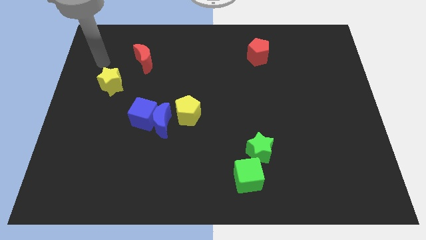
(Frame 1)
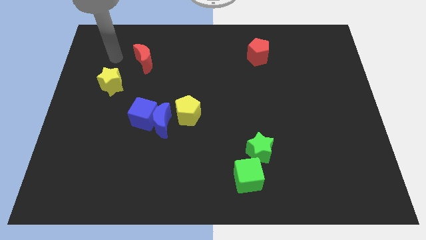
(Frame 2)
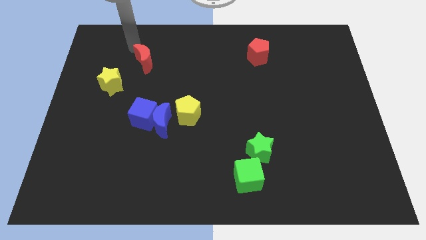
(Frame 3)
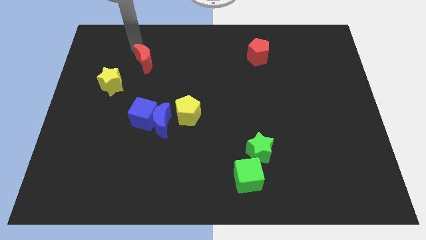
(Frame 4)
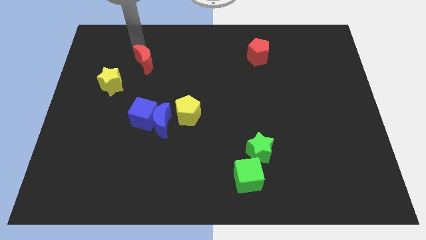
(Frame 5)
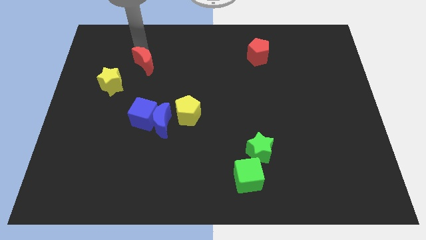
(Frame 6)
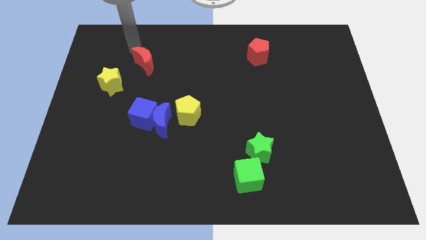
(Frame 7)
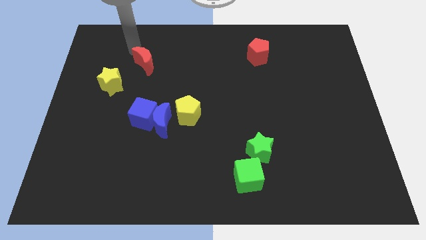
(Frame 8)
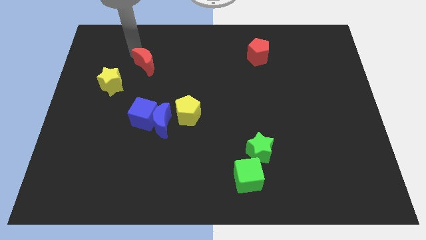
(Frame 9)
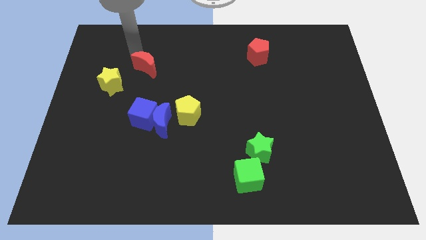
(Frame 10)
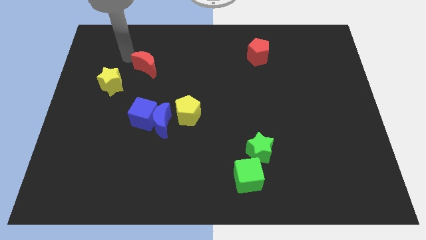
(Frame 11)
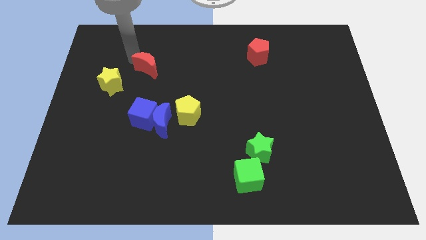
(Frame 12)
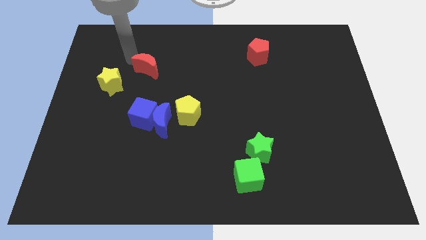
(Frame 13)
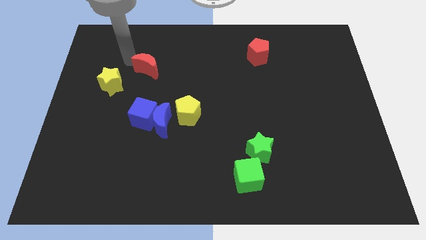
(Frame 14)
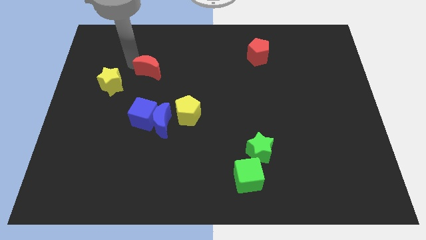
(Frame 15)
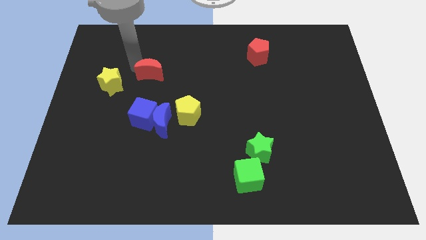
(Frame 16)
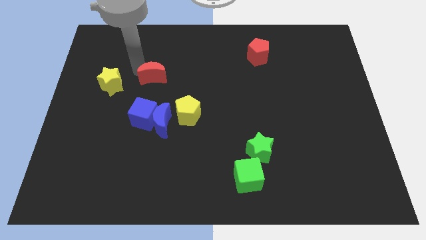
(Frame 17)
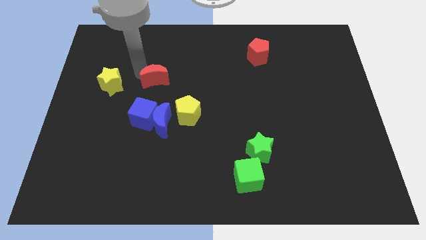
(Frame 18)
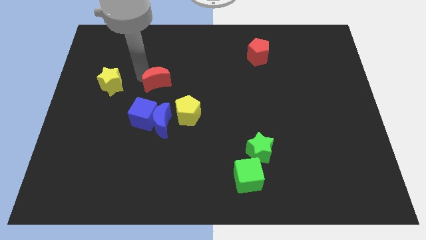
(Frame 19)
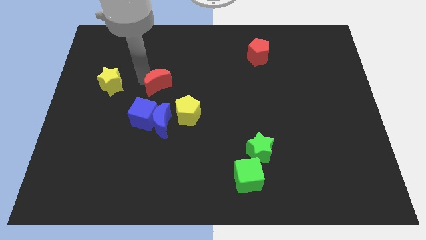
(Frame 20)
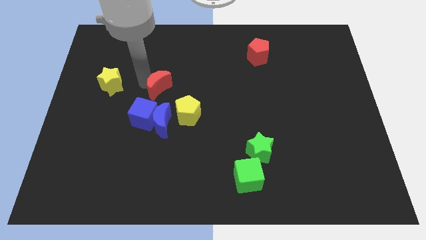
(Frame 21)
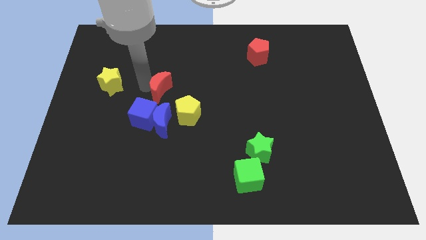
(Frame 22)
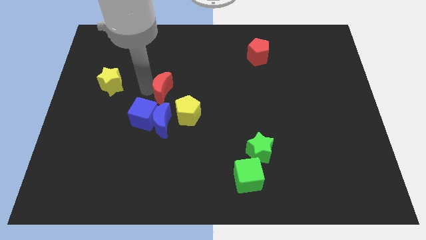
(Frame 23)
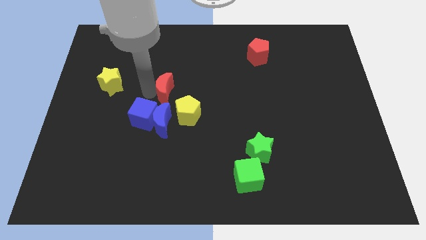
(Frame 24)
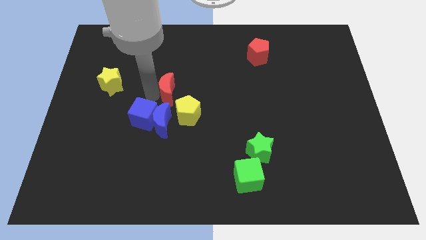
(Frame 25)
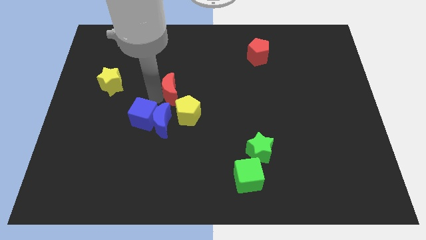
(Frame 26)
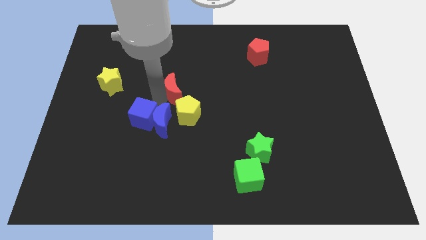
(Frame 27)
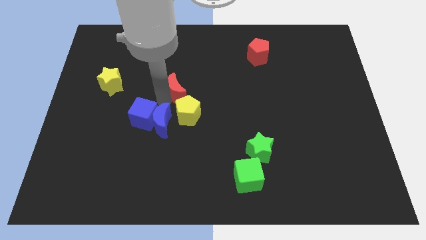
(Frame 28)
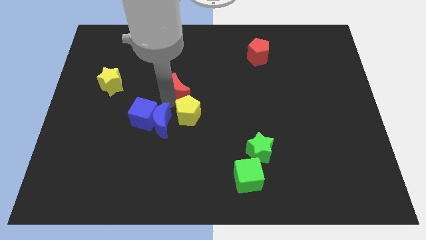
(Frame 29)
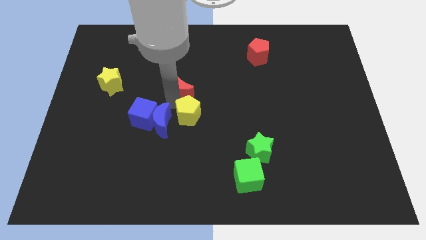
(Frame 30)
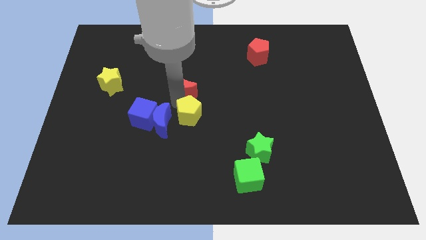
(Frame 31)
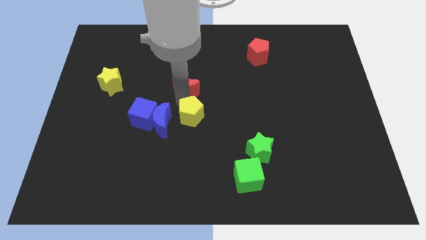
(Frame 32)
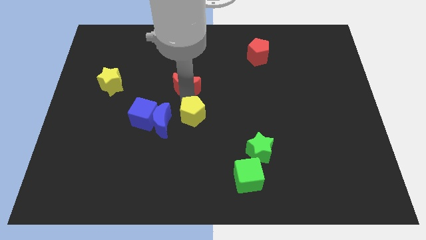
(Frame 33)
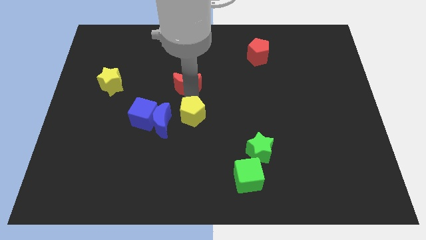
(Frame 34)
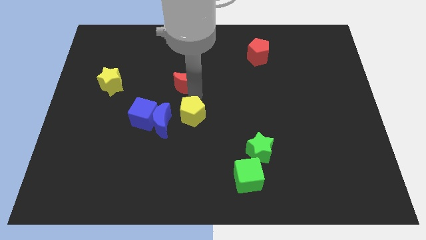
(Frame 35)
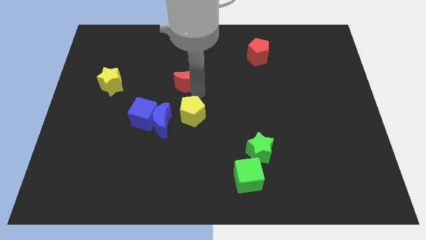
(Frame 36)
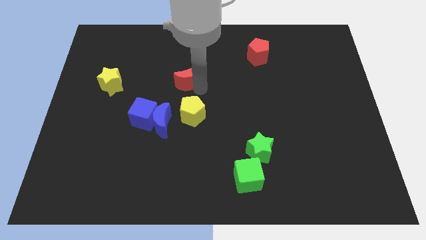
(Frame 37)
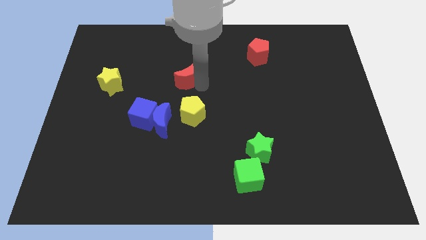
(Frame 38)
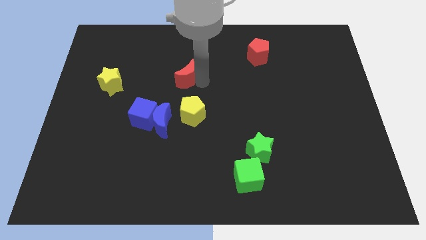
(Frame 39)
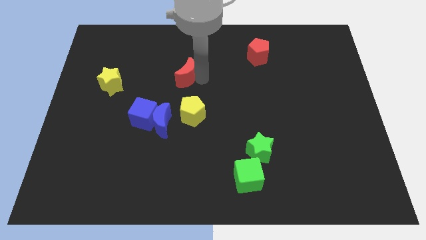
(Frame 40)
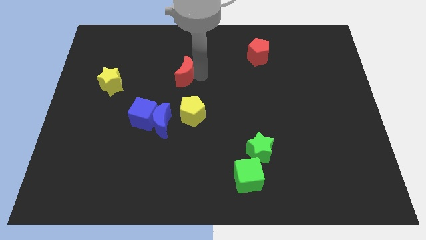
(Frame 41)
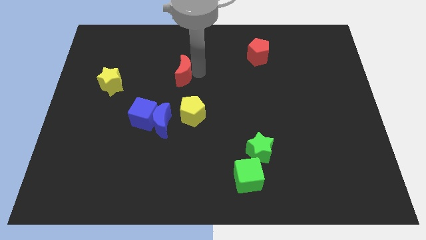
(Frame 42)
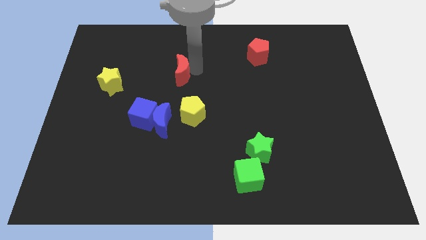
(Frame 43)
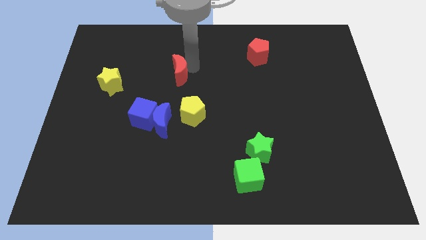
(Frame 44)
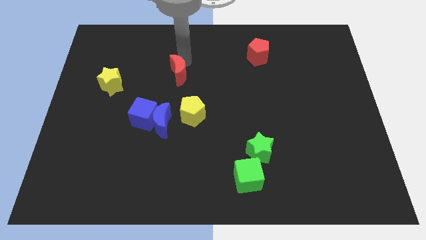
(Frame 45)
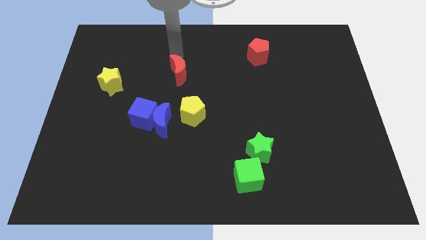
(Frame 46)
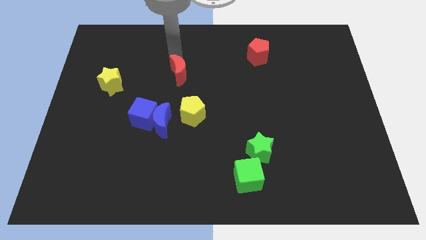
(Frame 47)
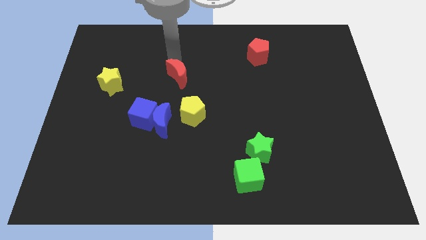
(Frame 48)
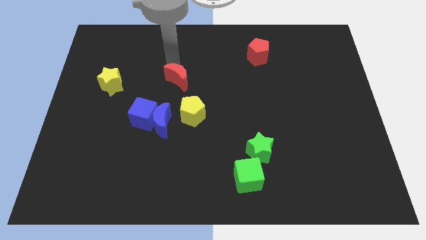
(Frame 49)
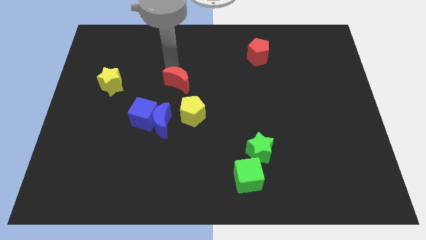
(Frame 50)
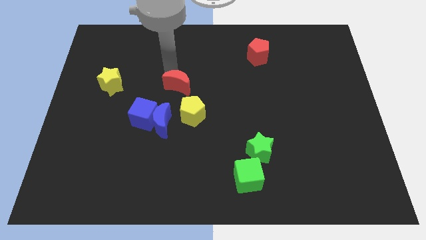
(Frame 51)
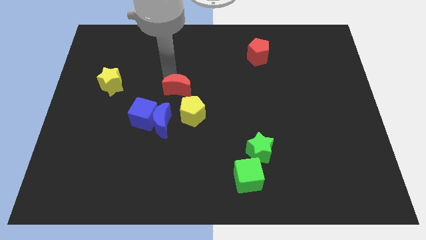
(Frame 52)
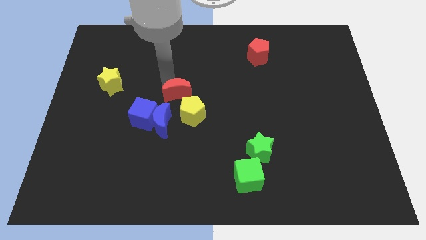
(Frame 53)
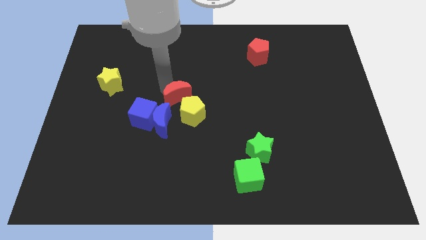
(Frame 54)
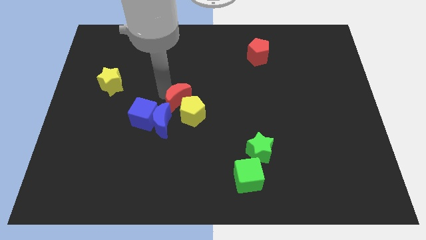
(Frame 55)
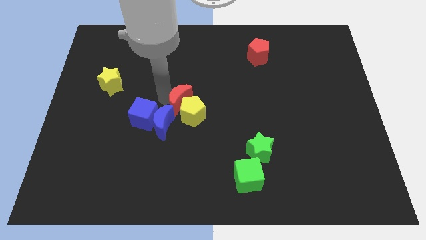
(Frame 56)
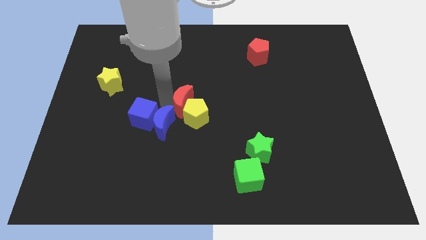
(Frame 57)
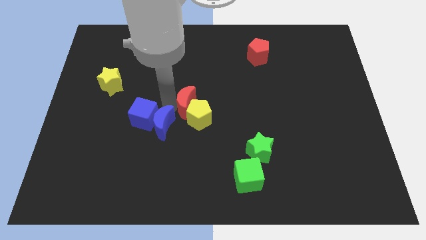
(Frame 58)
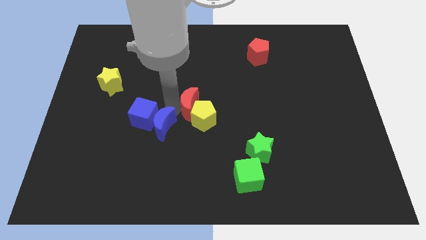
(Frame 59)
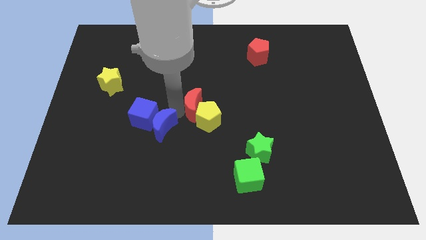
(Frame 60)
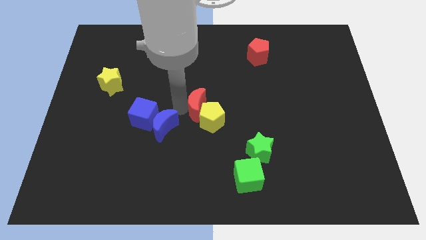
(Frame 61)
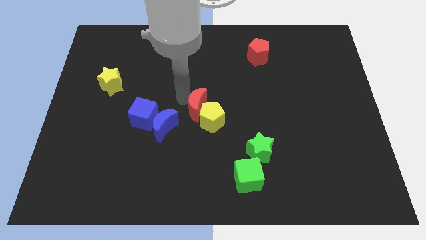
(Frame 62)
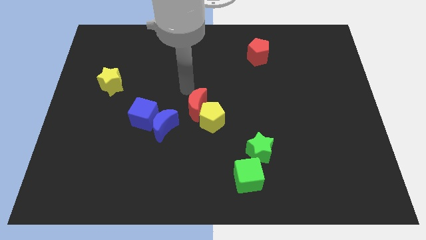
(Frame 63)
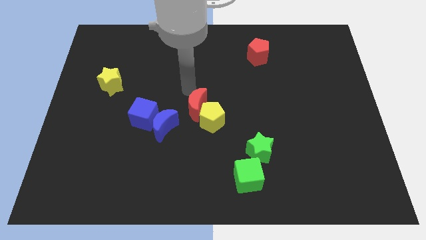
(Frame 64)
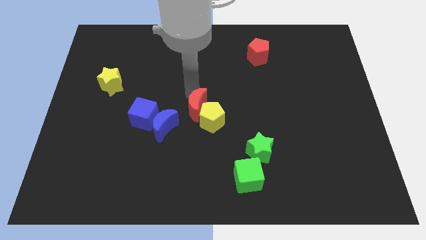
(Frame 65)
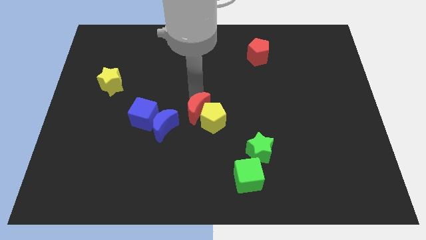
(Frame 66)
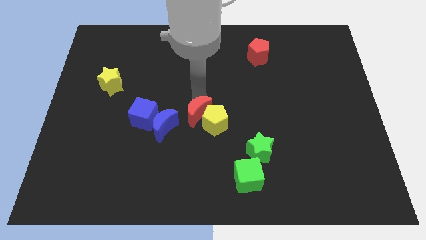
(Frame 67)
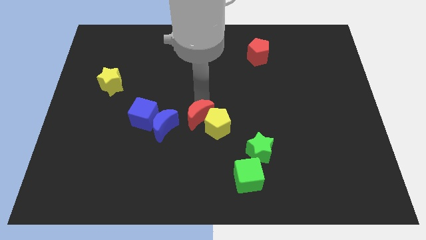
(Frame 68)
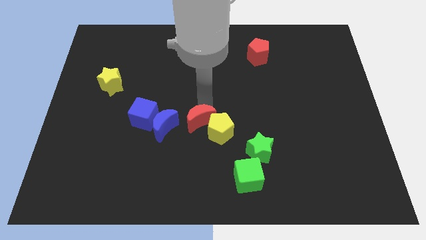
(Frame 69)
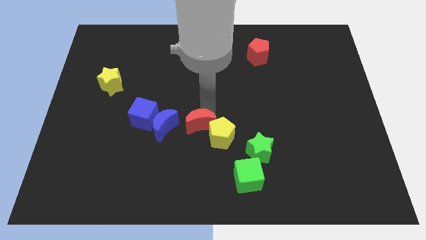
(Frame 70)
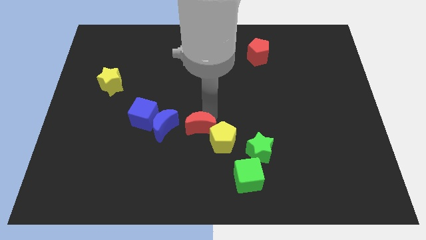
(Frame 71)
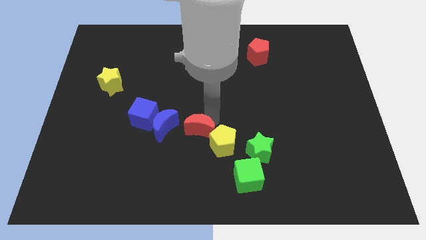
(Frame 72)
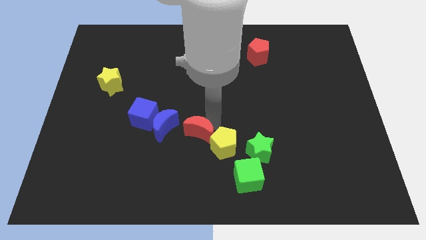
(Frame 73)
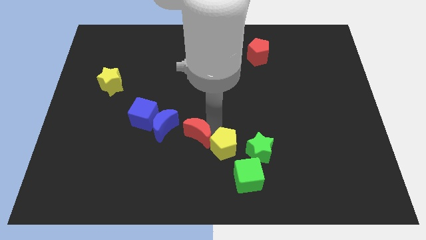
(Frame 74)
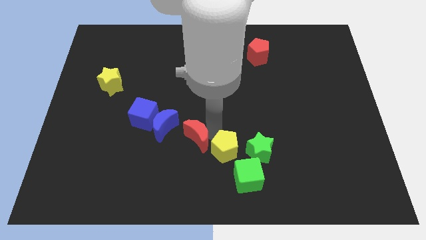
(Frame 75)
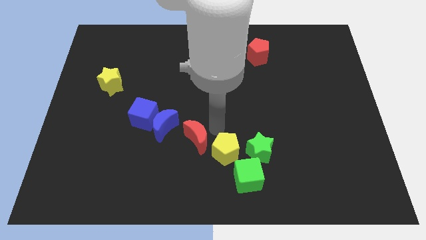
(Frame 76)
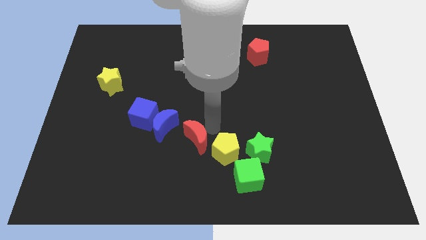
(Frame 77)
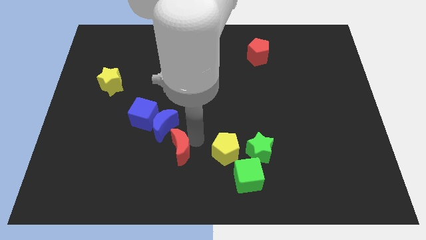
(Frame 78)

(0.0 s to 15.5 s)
push the red moon below the blue moon

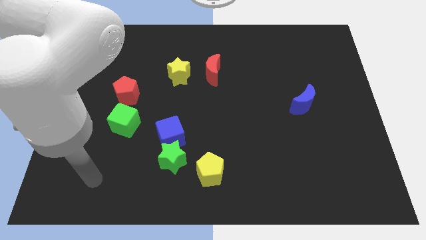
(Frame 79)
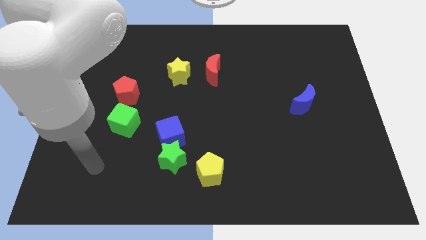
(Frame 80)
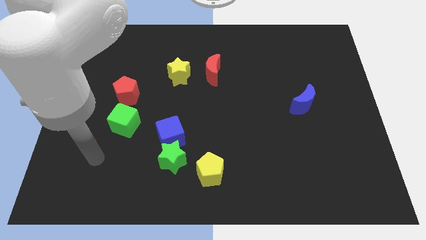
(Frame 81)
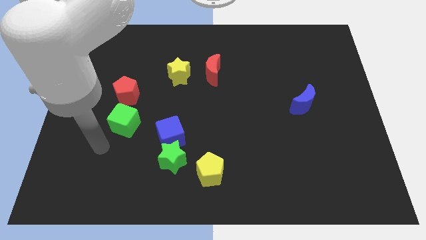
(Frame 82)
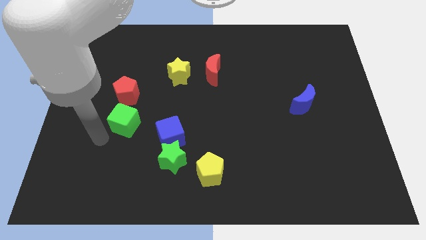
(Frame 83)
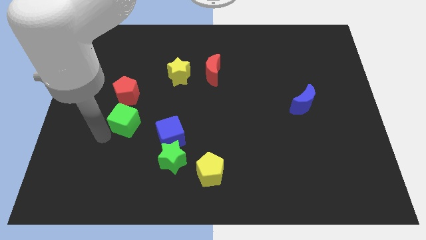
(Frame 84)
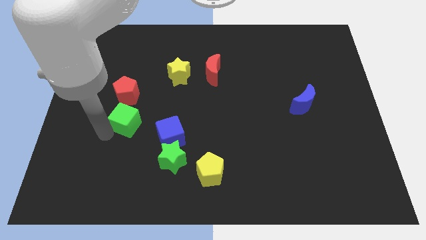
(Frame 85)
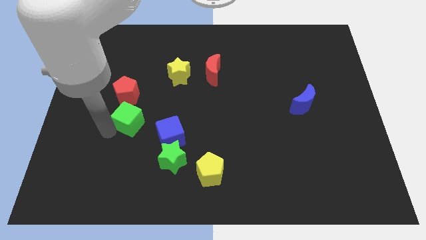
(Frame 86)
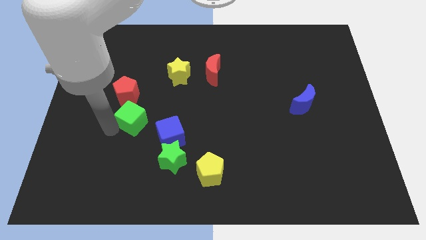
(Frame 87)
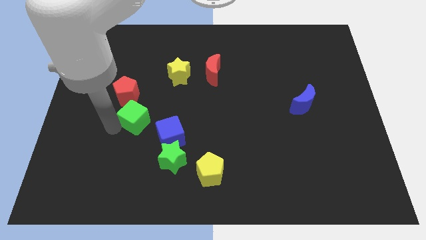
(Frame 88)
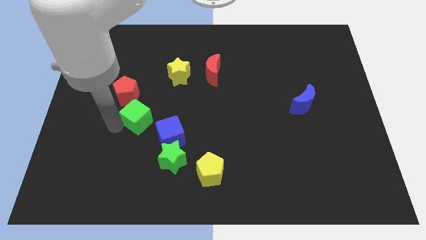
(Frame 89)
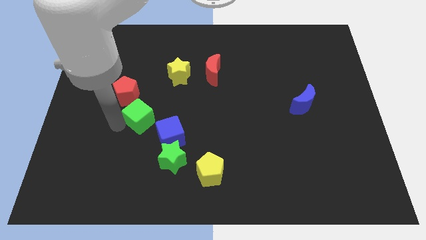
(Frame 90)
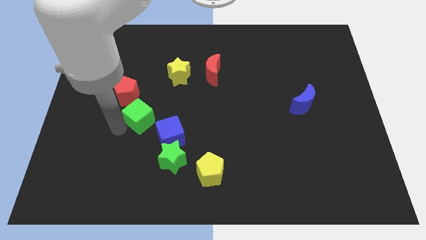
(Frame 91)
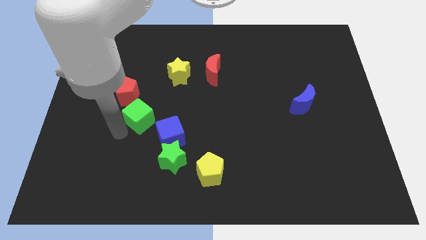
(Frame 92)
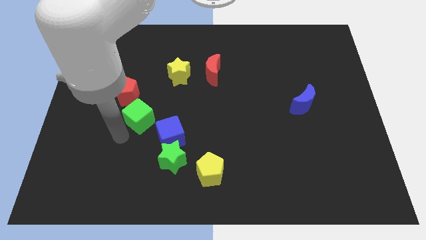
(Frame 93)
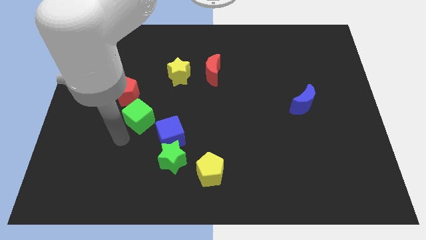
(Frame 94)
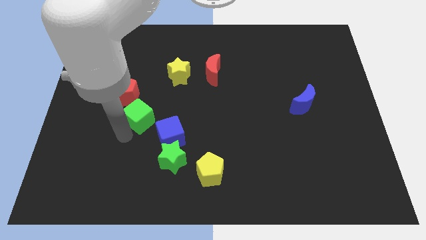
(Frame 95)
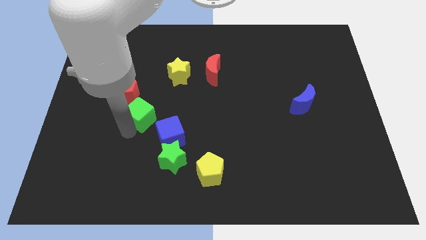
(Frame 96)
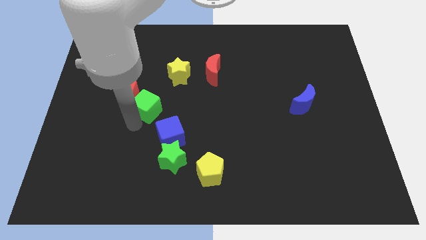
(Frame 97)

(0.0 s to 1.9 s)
slide the green cube to the right side of the red pentagon
